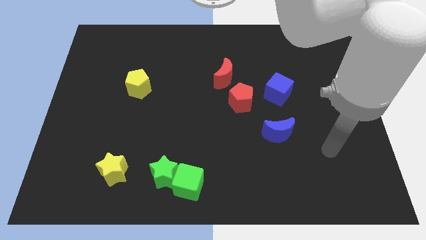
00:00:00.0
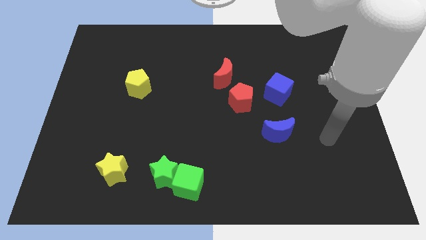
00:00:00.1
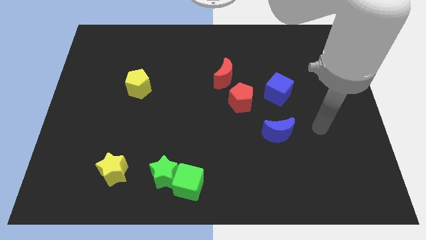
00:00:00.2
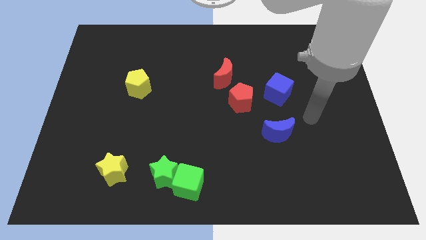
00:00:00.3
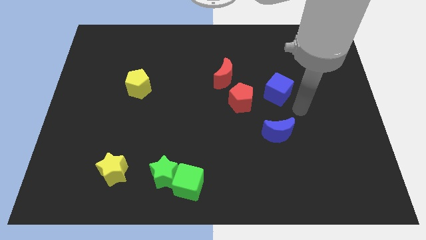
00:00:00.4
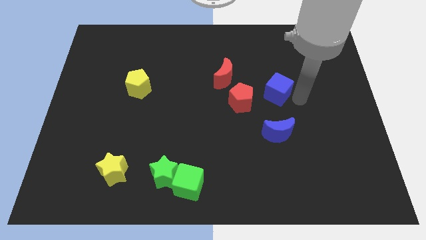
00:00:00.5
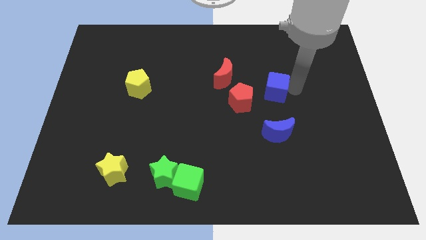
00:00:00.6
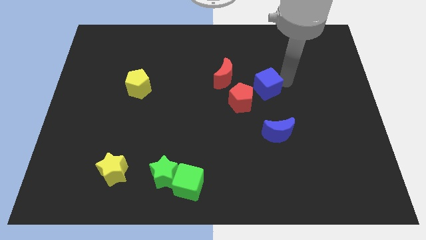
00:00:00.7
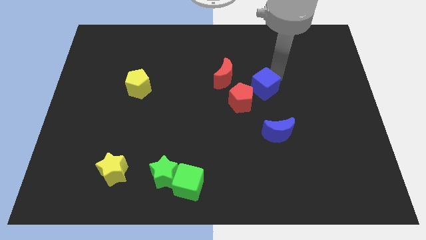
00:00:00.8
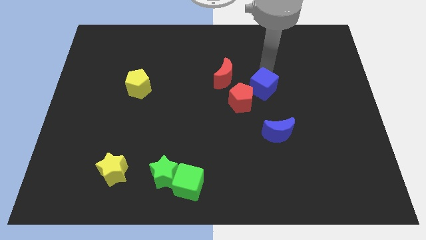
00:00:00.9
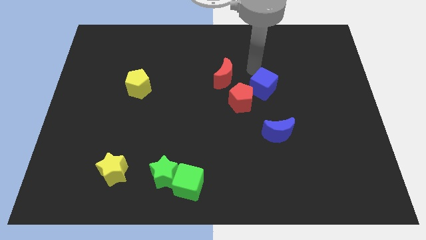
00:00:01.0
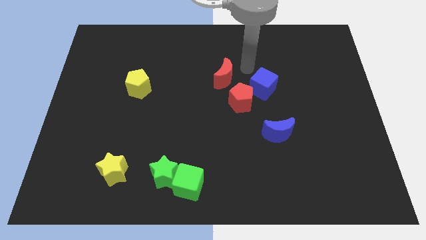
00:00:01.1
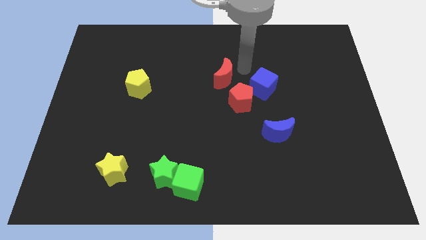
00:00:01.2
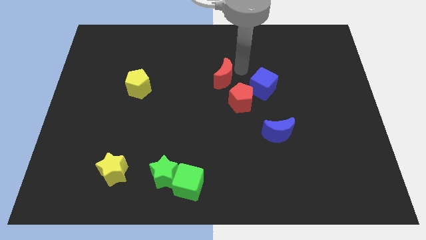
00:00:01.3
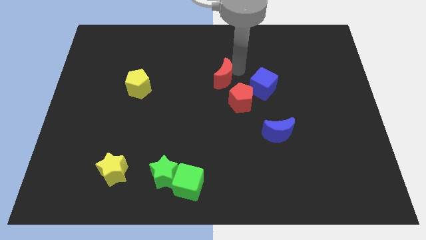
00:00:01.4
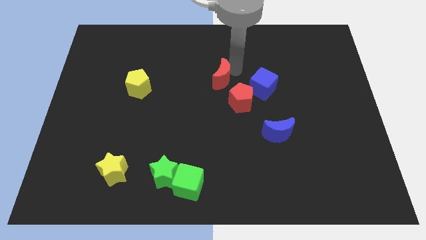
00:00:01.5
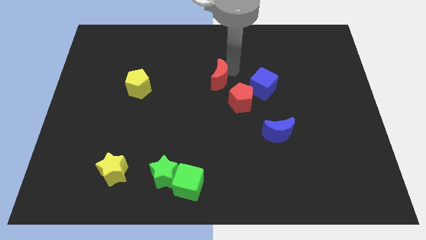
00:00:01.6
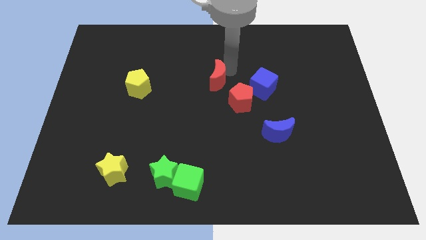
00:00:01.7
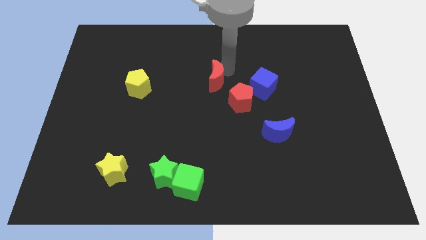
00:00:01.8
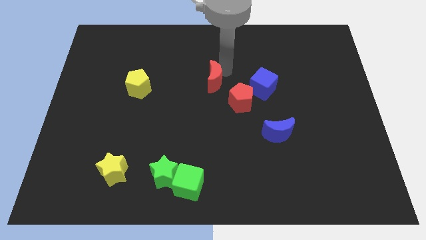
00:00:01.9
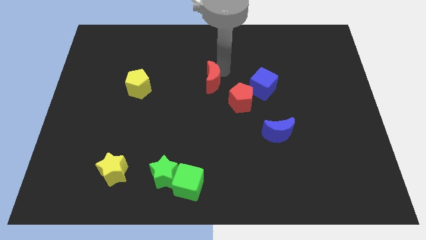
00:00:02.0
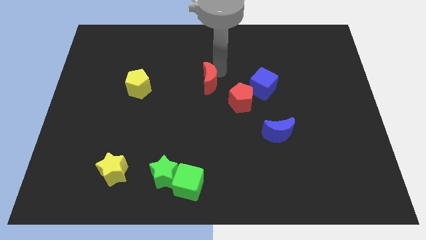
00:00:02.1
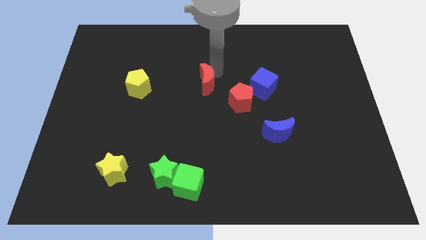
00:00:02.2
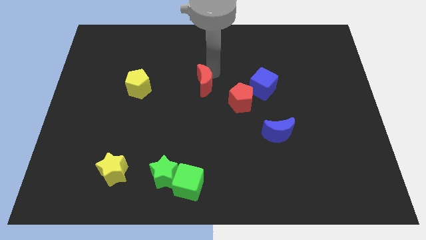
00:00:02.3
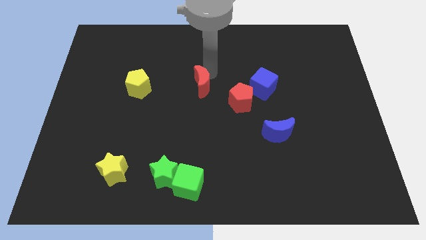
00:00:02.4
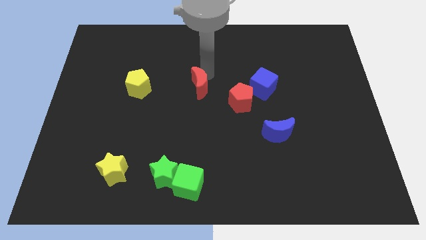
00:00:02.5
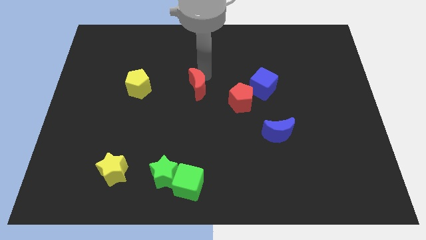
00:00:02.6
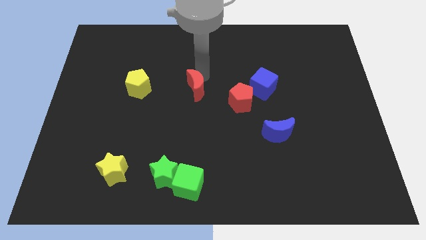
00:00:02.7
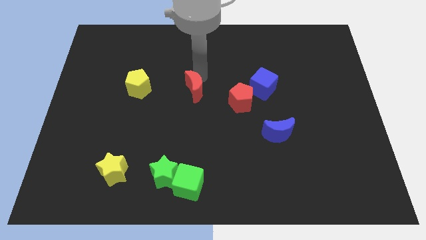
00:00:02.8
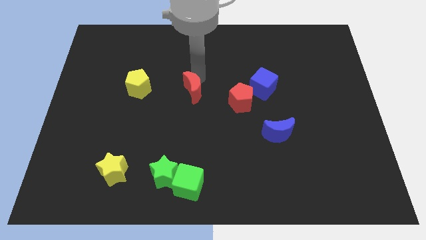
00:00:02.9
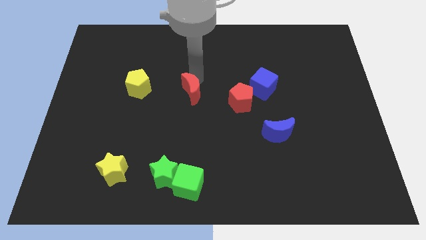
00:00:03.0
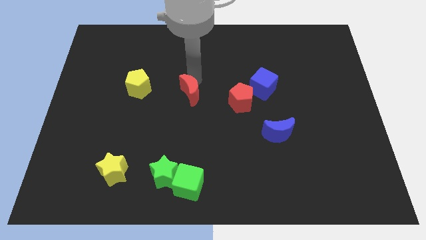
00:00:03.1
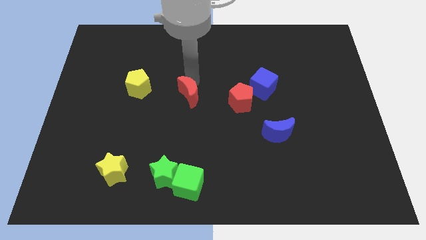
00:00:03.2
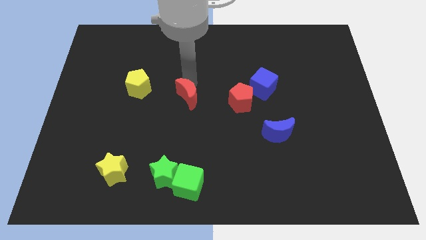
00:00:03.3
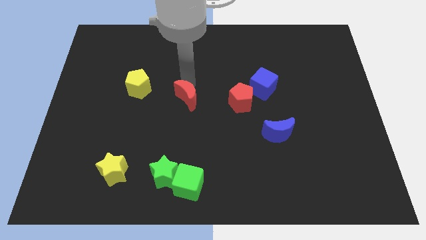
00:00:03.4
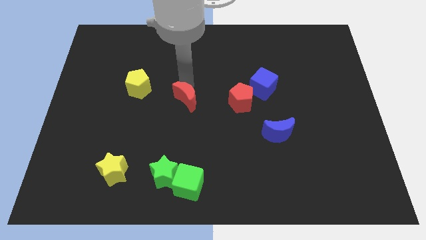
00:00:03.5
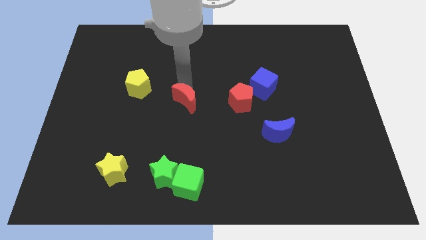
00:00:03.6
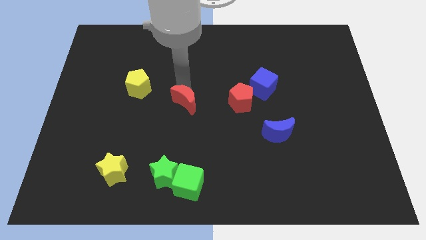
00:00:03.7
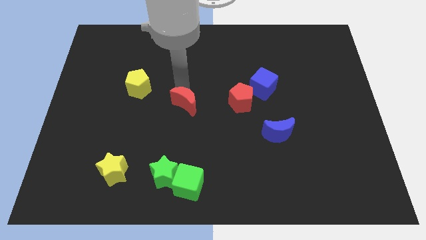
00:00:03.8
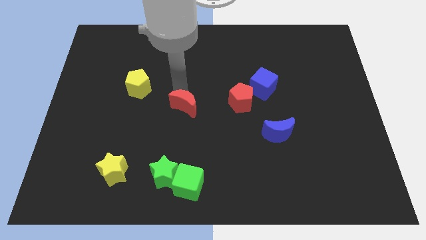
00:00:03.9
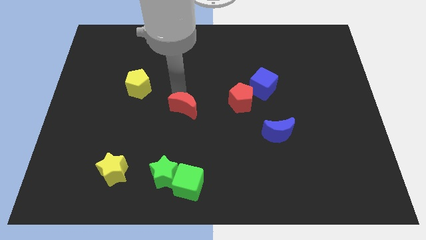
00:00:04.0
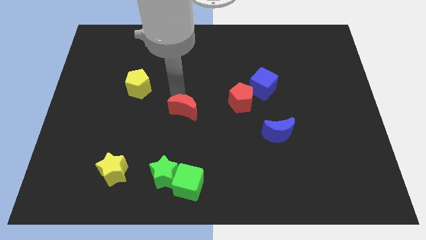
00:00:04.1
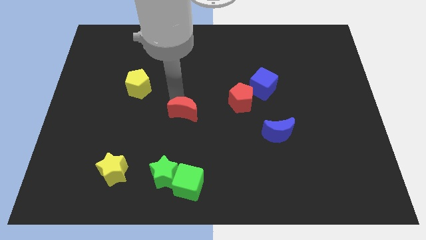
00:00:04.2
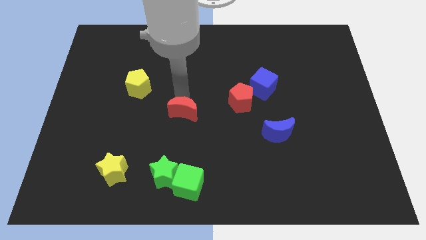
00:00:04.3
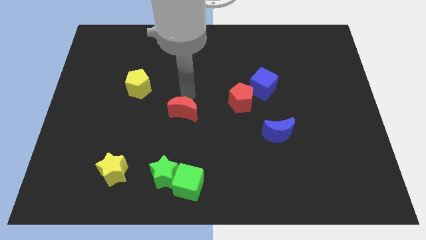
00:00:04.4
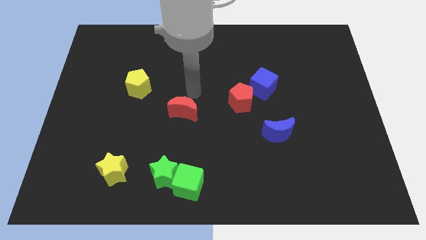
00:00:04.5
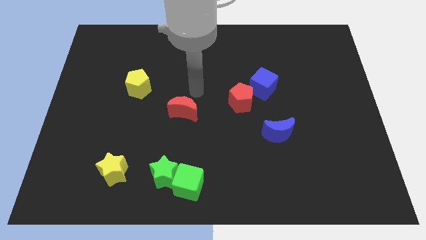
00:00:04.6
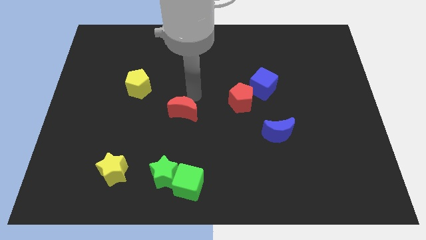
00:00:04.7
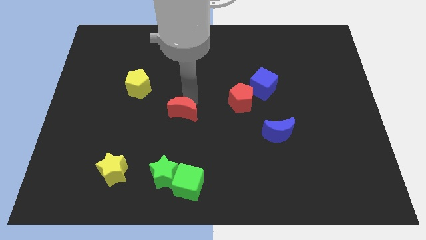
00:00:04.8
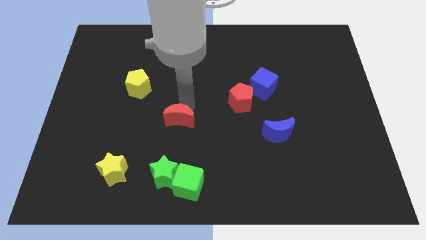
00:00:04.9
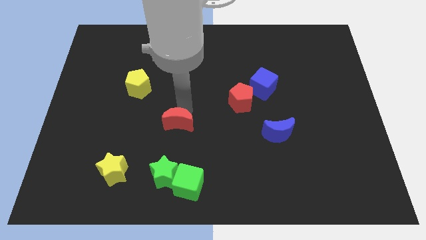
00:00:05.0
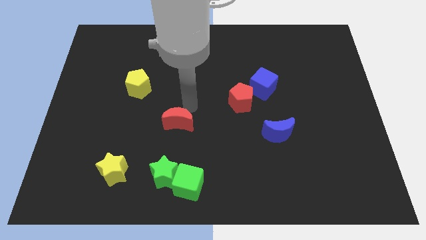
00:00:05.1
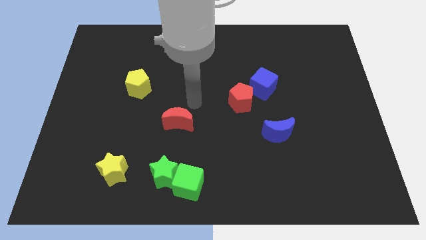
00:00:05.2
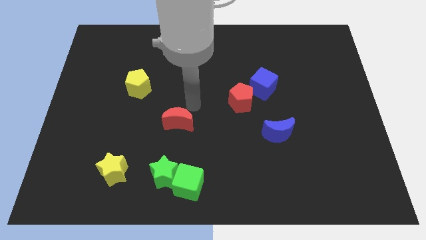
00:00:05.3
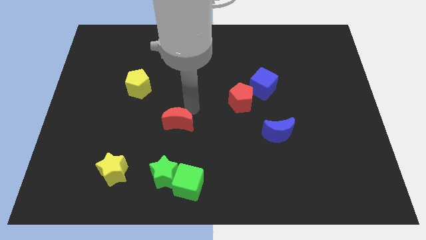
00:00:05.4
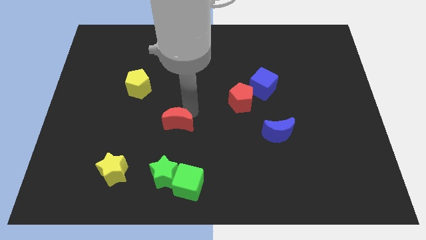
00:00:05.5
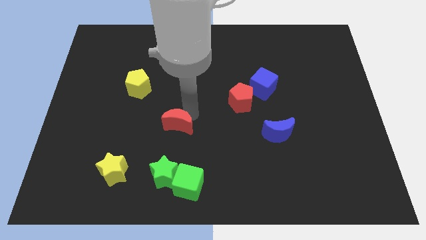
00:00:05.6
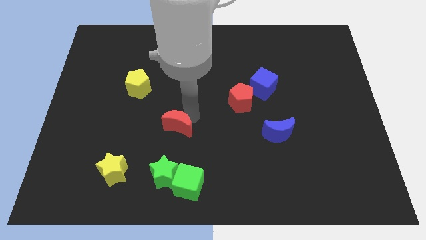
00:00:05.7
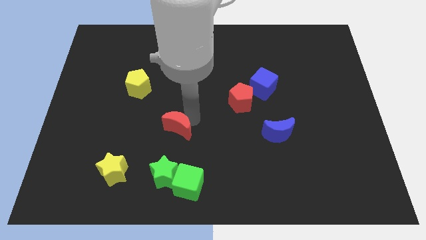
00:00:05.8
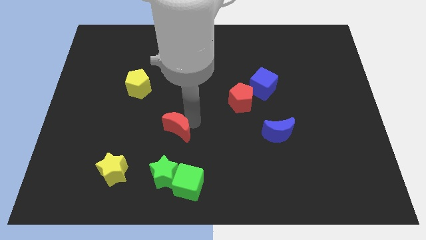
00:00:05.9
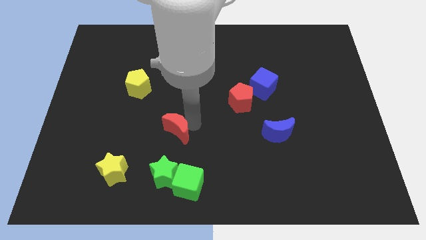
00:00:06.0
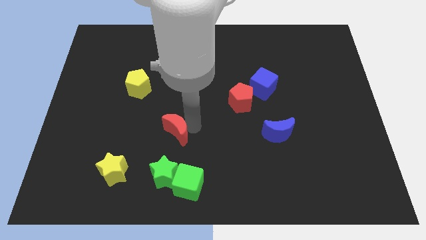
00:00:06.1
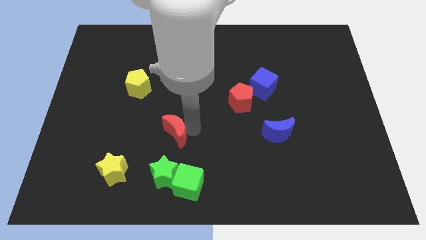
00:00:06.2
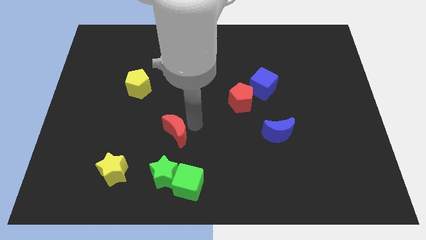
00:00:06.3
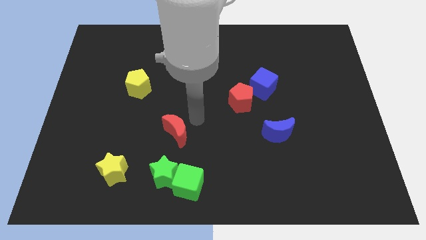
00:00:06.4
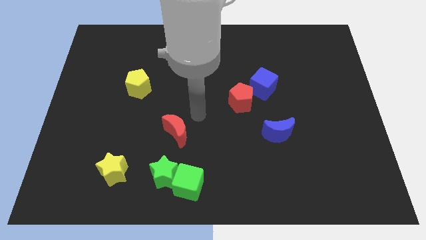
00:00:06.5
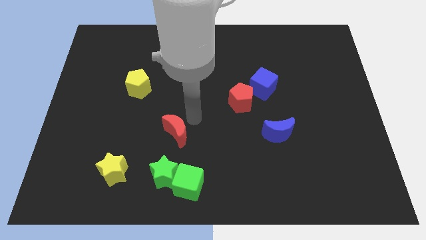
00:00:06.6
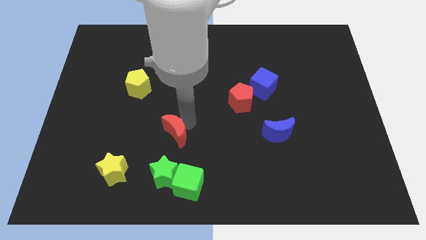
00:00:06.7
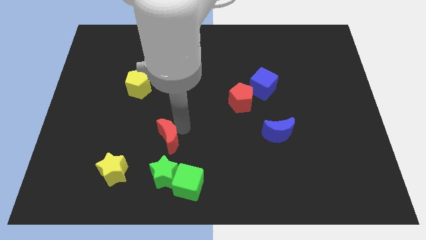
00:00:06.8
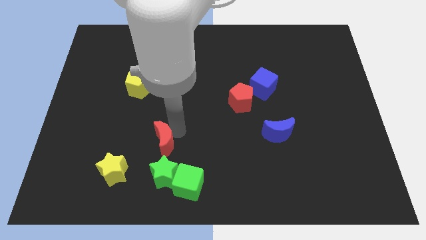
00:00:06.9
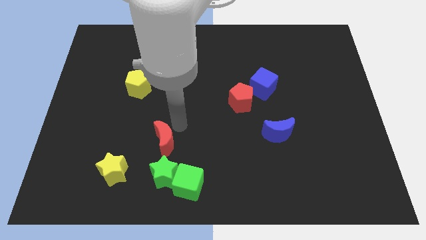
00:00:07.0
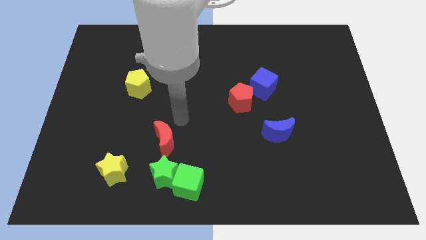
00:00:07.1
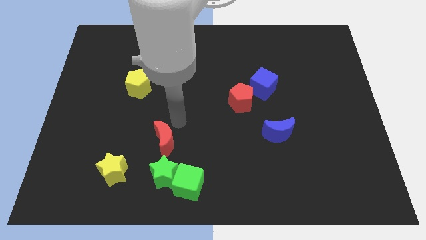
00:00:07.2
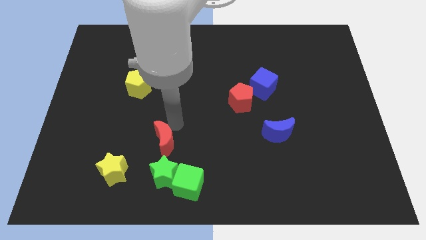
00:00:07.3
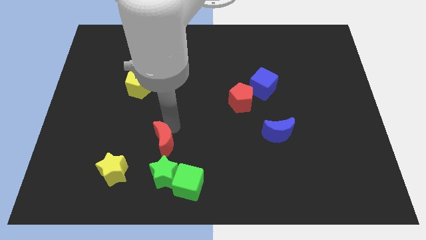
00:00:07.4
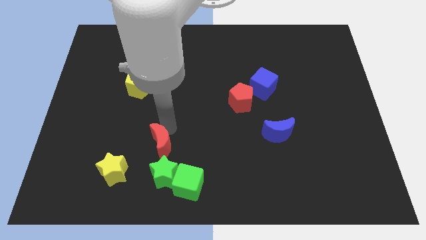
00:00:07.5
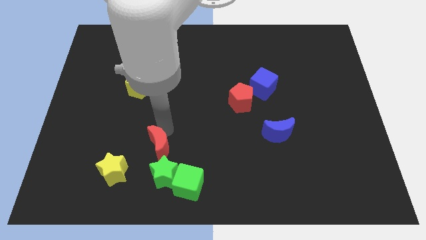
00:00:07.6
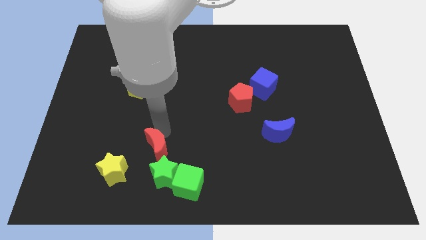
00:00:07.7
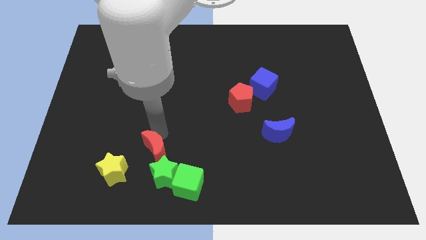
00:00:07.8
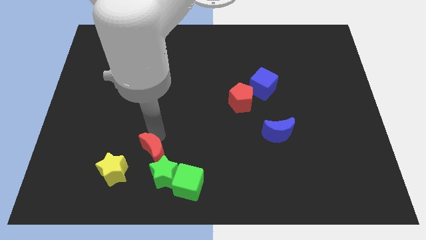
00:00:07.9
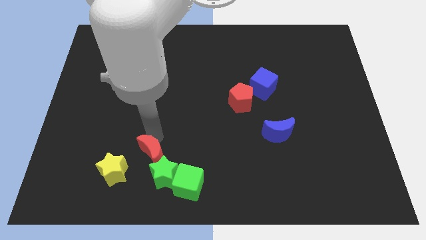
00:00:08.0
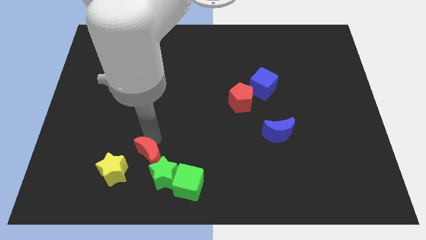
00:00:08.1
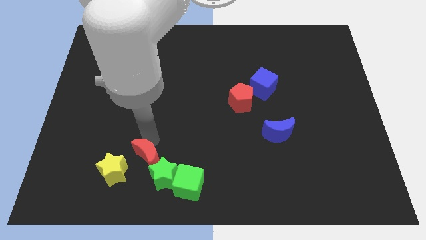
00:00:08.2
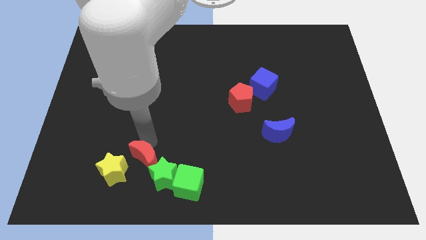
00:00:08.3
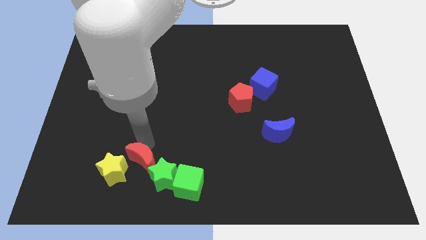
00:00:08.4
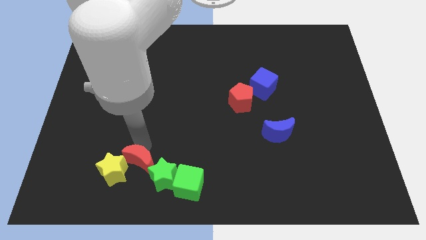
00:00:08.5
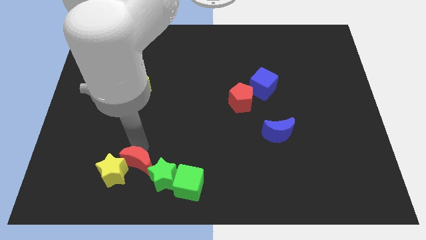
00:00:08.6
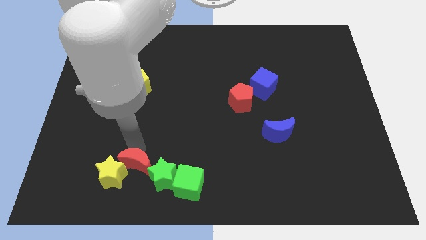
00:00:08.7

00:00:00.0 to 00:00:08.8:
push the red moon left of the green cube
